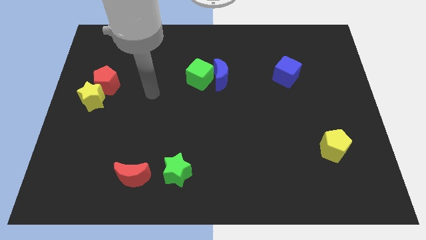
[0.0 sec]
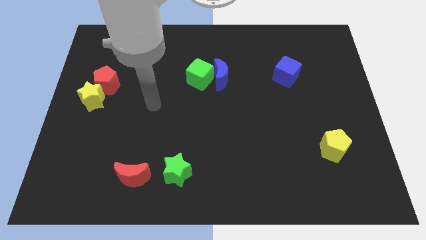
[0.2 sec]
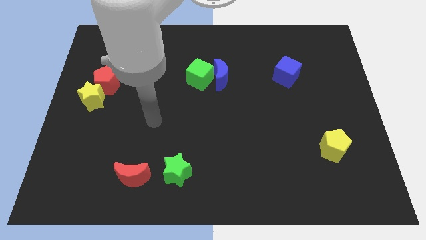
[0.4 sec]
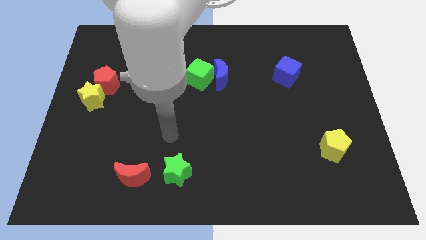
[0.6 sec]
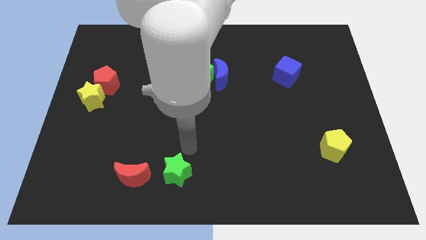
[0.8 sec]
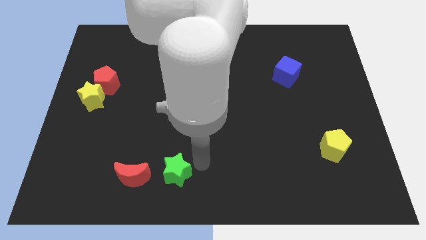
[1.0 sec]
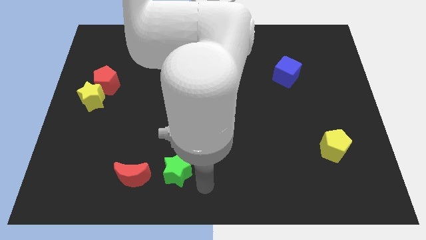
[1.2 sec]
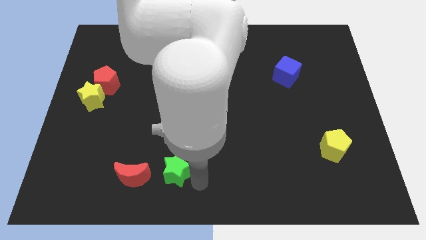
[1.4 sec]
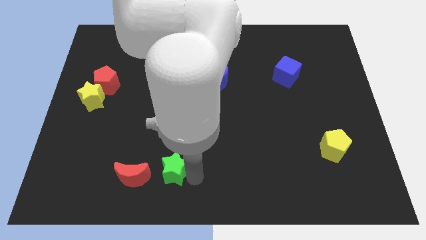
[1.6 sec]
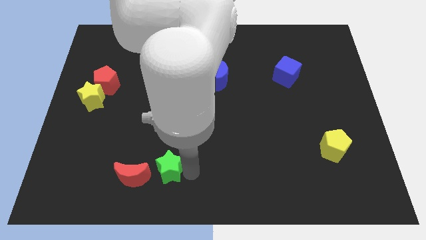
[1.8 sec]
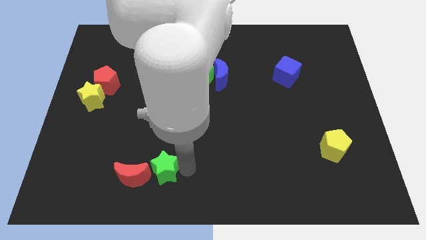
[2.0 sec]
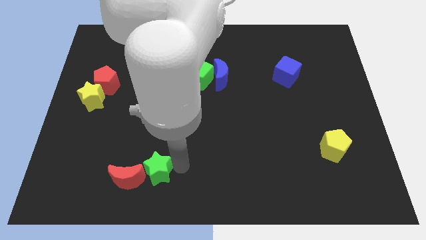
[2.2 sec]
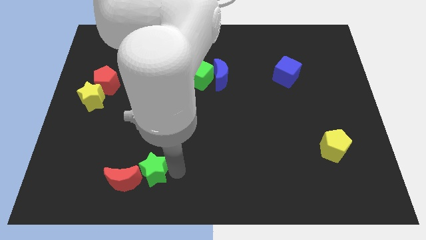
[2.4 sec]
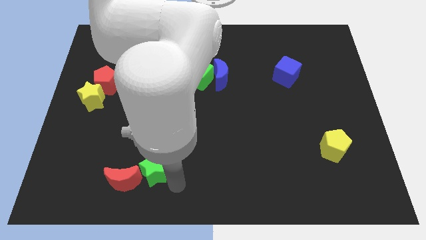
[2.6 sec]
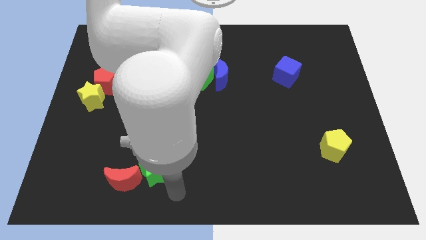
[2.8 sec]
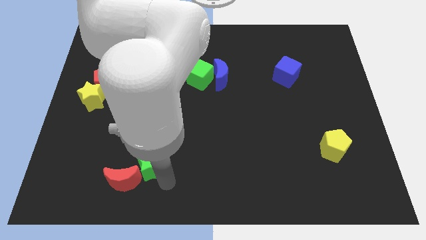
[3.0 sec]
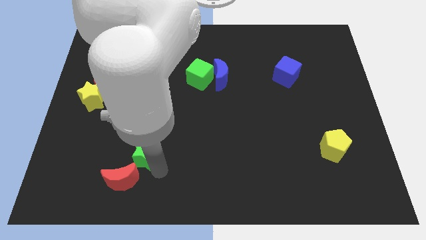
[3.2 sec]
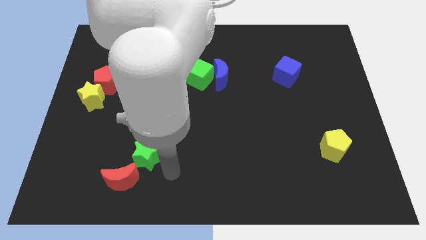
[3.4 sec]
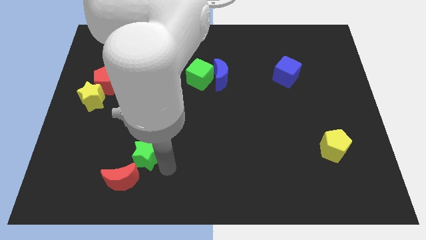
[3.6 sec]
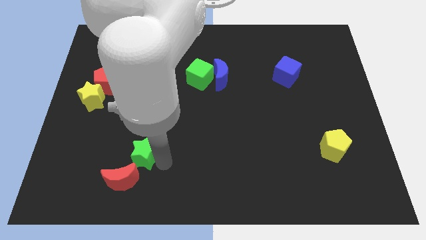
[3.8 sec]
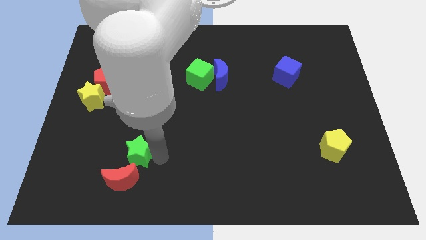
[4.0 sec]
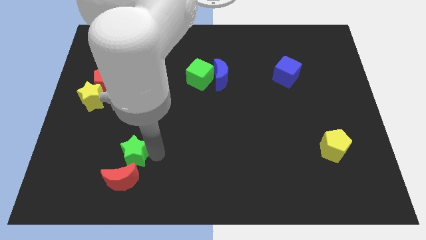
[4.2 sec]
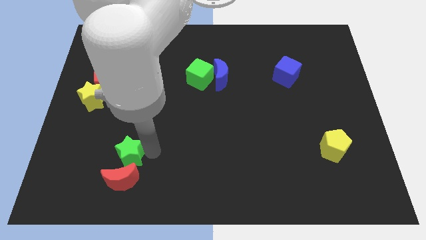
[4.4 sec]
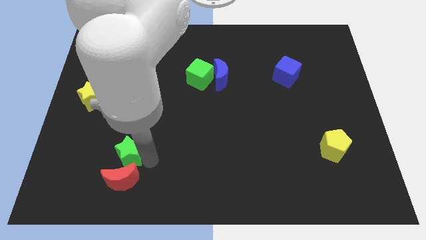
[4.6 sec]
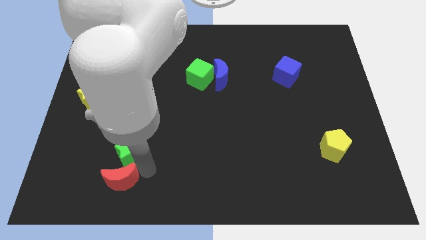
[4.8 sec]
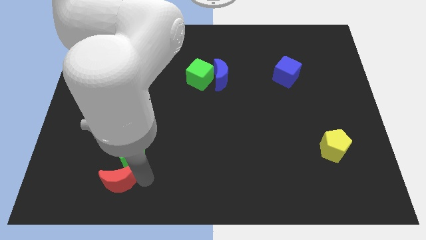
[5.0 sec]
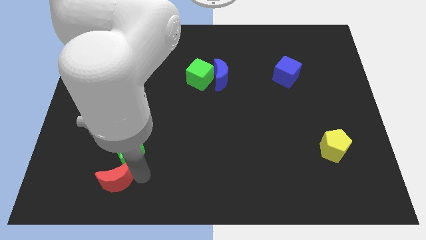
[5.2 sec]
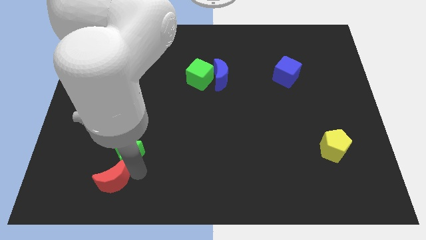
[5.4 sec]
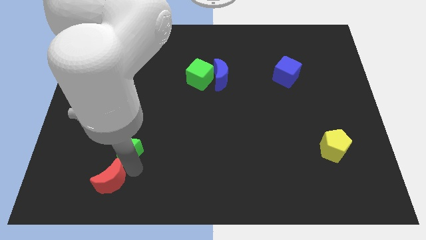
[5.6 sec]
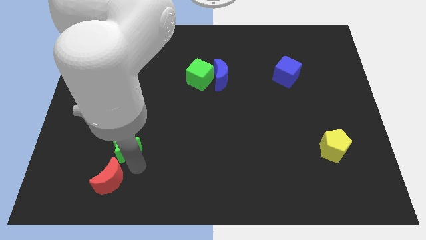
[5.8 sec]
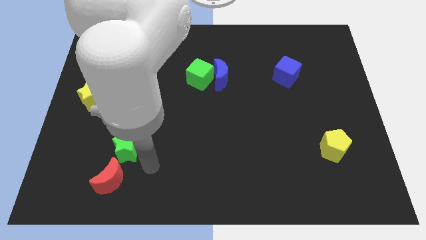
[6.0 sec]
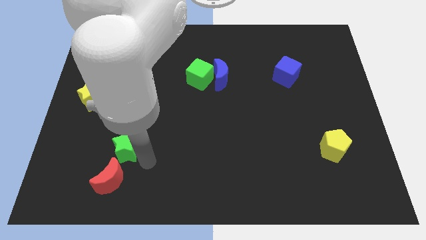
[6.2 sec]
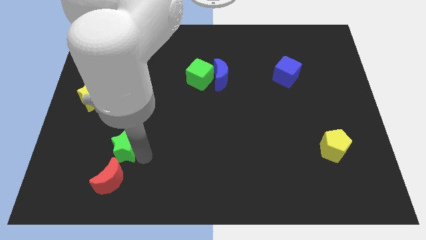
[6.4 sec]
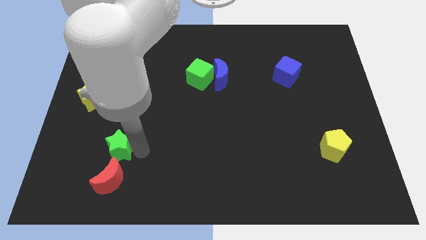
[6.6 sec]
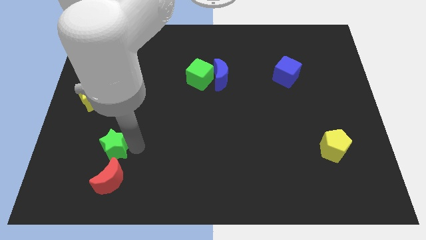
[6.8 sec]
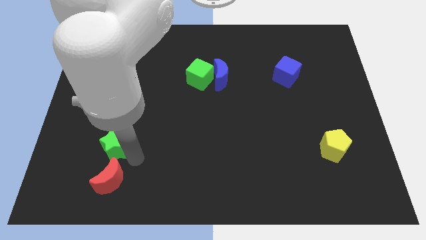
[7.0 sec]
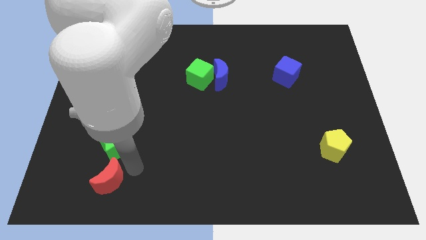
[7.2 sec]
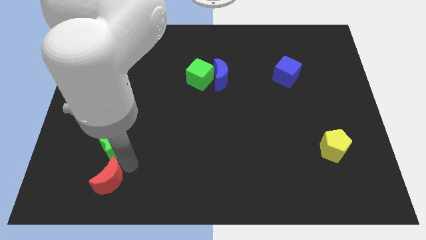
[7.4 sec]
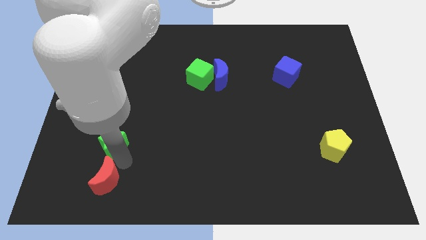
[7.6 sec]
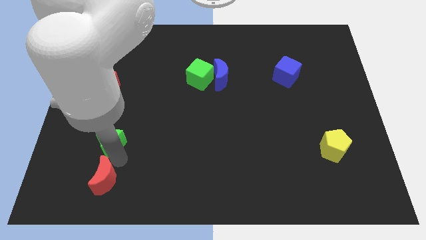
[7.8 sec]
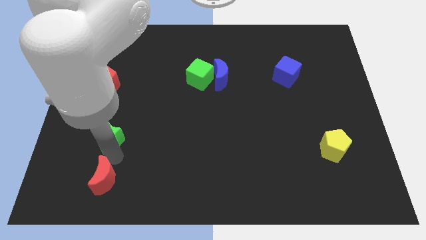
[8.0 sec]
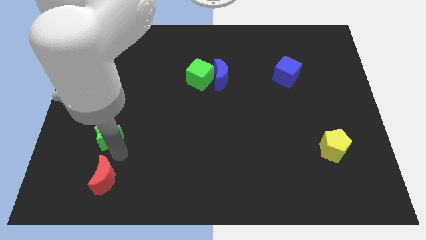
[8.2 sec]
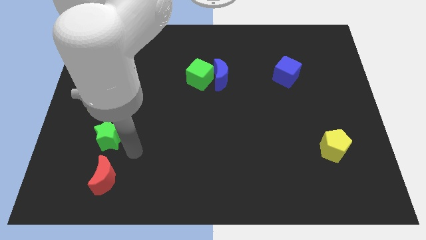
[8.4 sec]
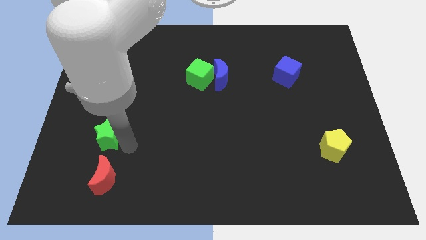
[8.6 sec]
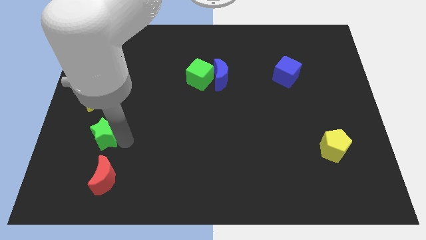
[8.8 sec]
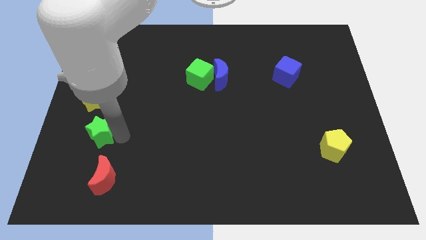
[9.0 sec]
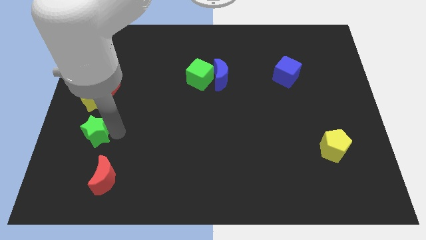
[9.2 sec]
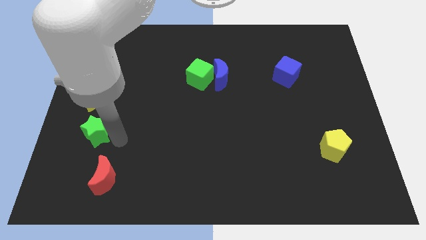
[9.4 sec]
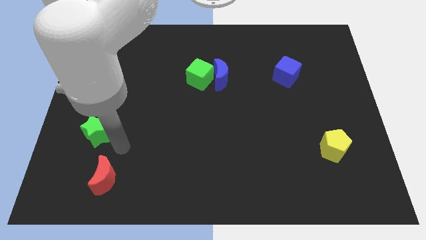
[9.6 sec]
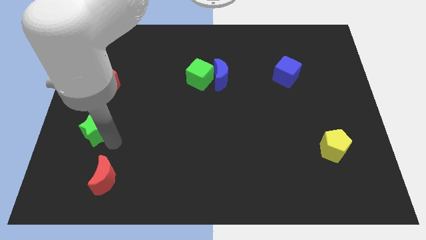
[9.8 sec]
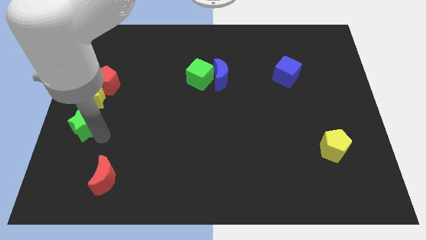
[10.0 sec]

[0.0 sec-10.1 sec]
put the green star to the left side
